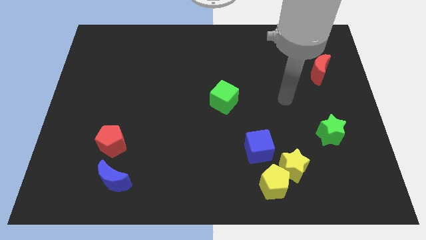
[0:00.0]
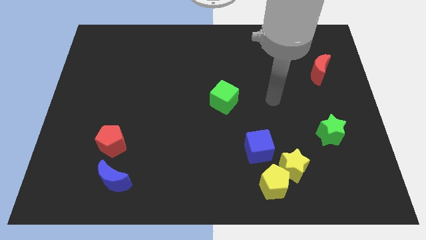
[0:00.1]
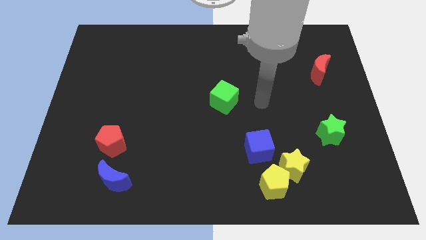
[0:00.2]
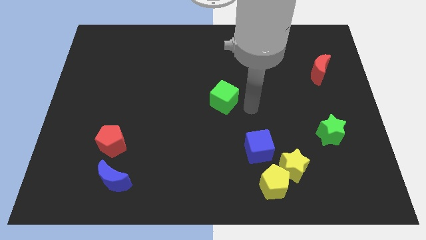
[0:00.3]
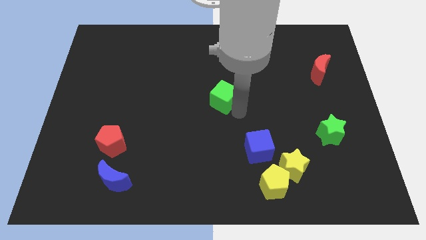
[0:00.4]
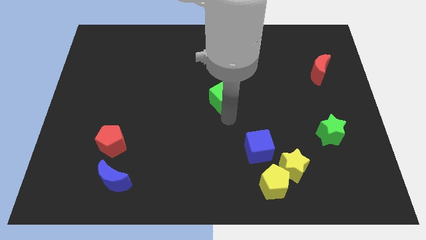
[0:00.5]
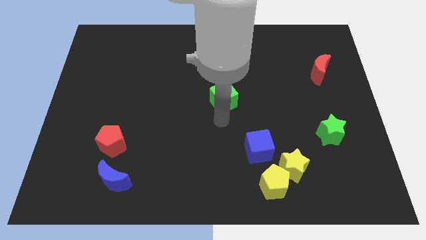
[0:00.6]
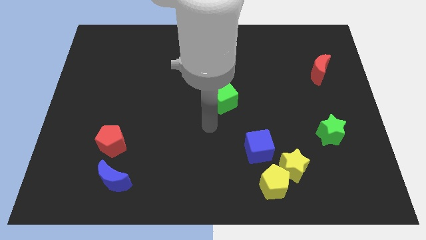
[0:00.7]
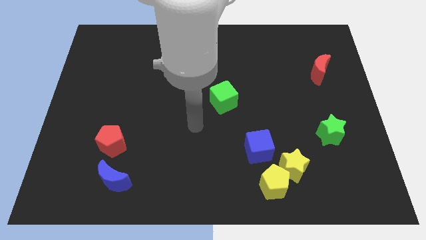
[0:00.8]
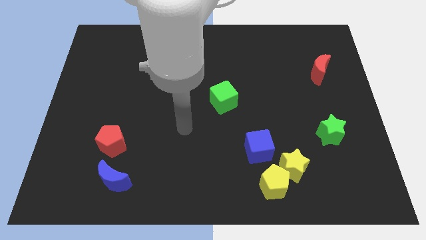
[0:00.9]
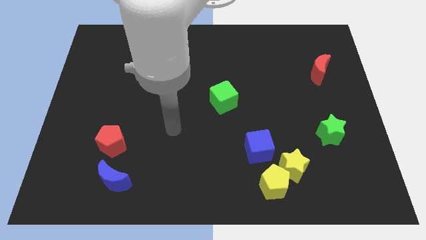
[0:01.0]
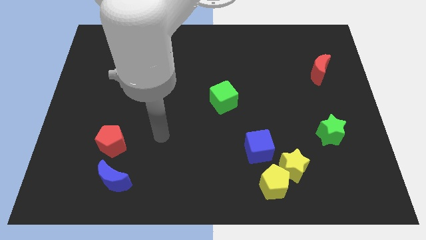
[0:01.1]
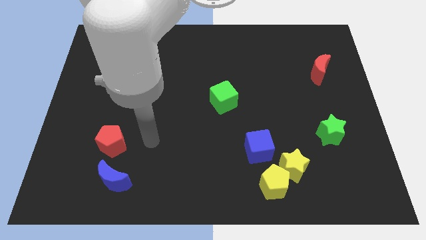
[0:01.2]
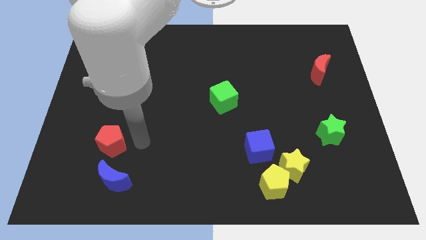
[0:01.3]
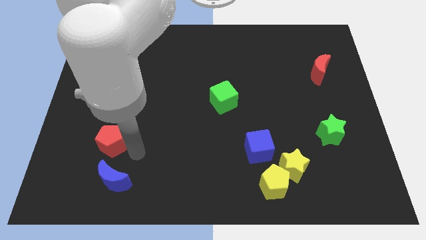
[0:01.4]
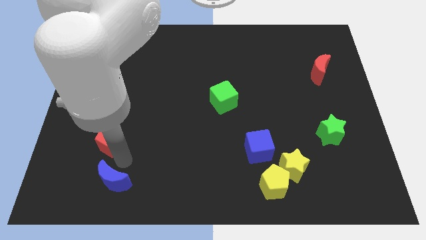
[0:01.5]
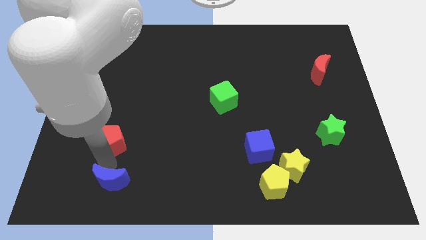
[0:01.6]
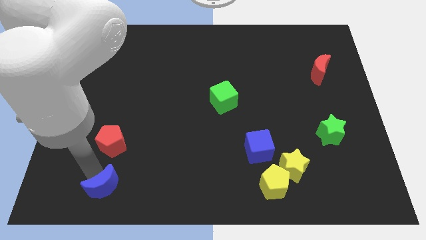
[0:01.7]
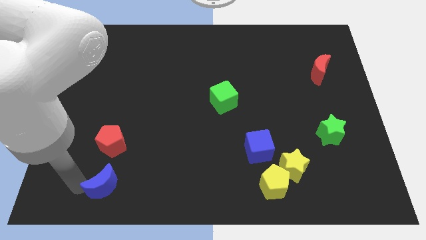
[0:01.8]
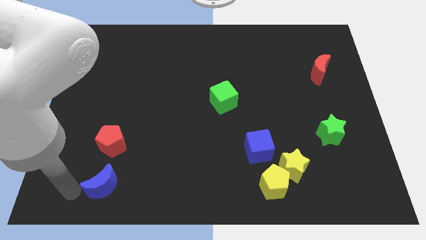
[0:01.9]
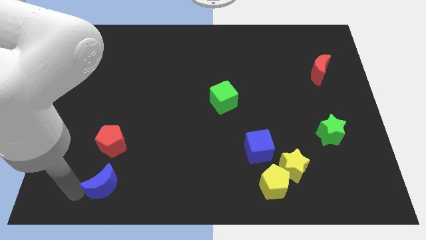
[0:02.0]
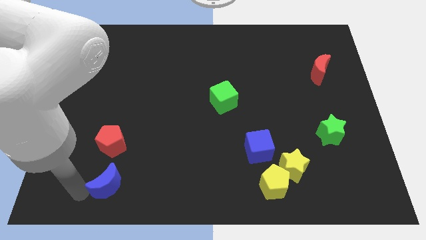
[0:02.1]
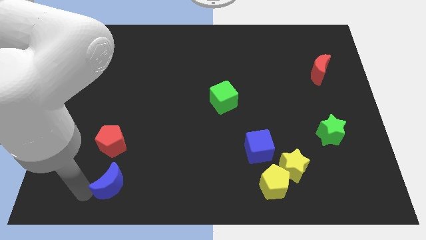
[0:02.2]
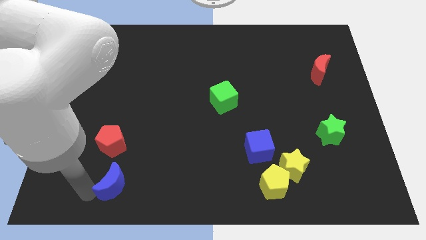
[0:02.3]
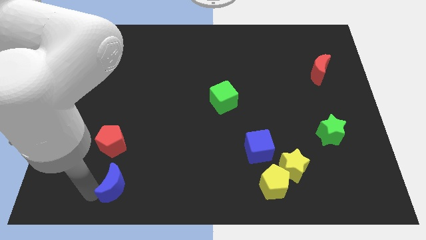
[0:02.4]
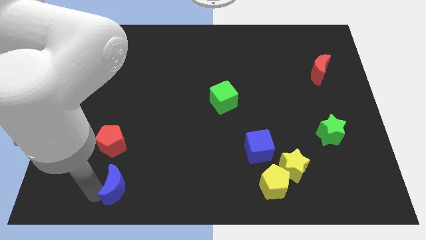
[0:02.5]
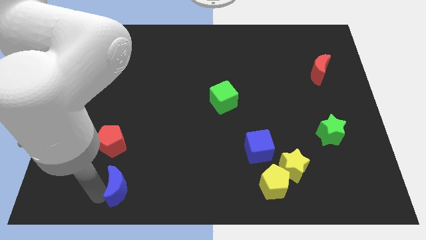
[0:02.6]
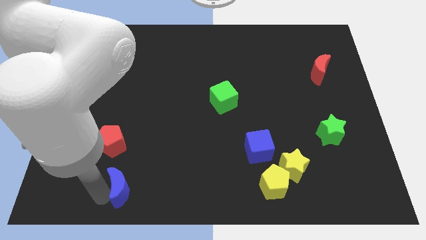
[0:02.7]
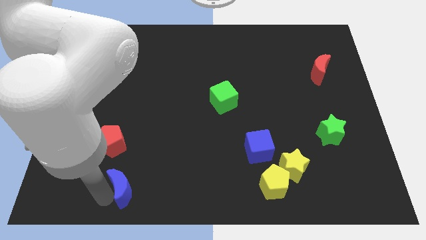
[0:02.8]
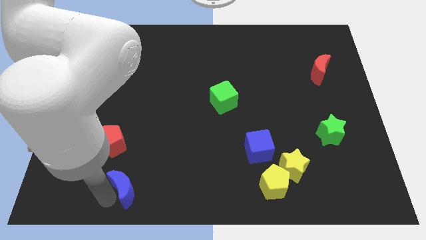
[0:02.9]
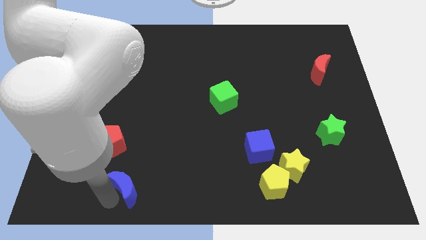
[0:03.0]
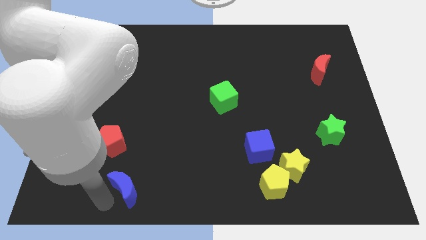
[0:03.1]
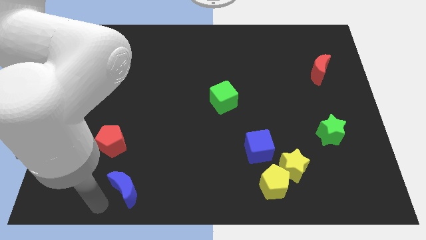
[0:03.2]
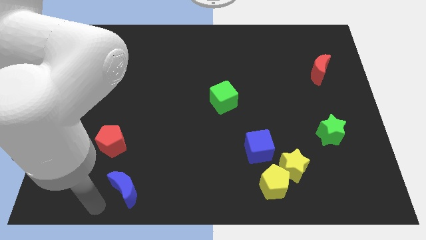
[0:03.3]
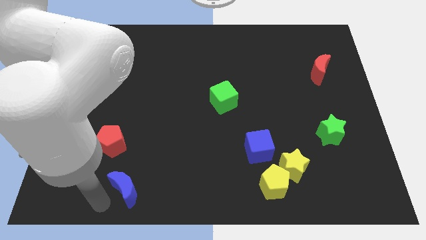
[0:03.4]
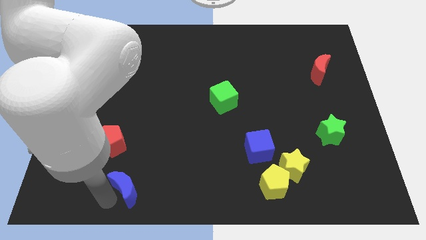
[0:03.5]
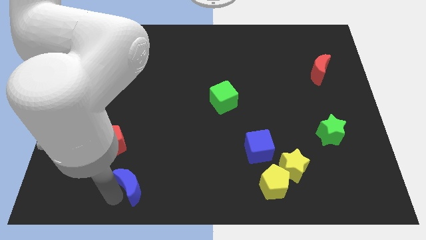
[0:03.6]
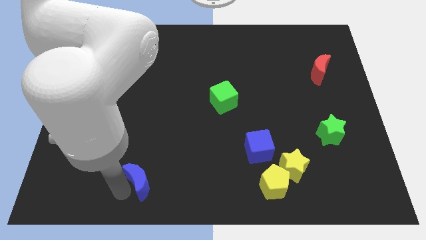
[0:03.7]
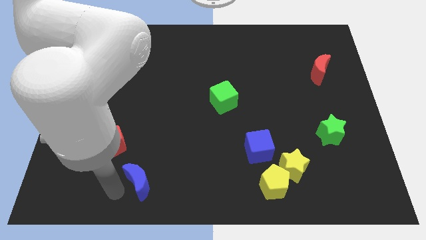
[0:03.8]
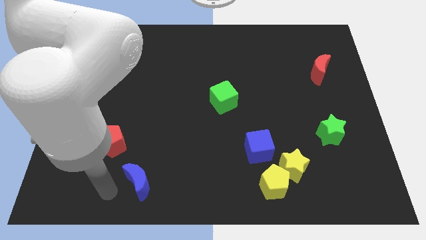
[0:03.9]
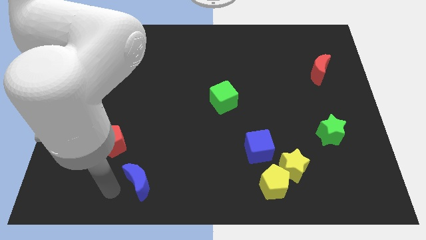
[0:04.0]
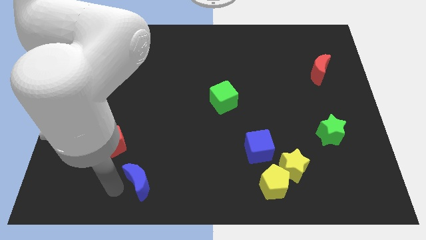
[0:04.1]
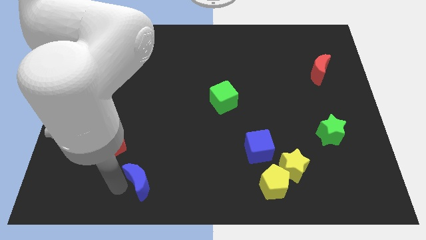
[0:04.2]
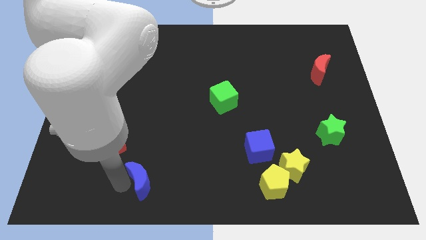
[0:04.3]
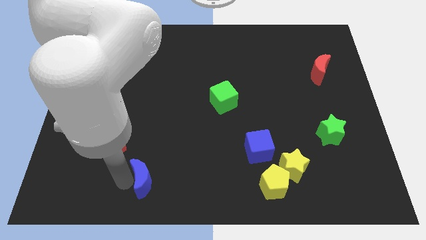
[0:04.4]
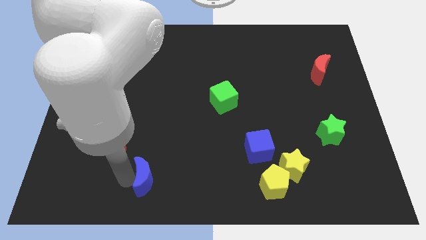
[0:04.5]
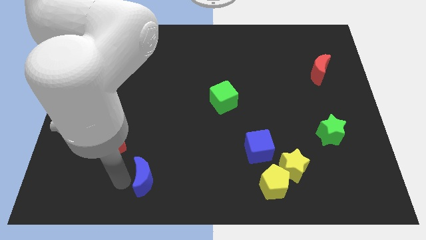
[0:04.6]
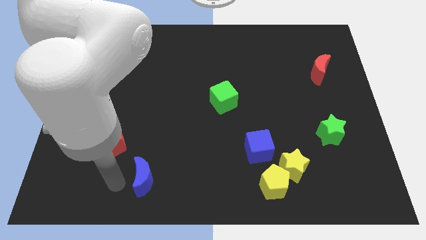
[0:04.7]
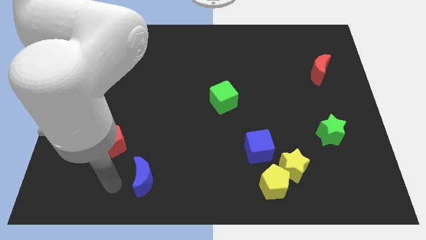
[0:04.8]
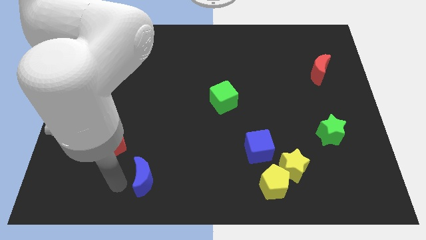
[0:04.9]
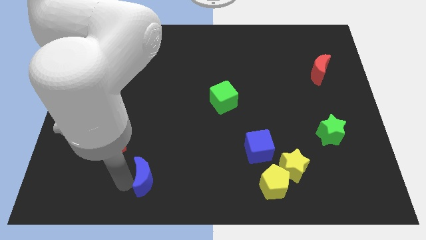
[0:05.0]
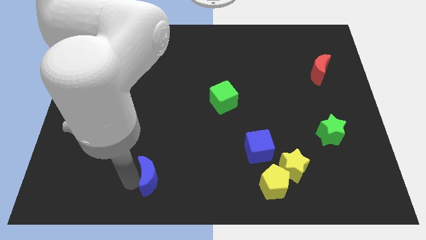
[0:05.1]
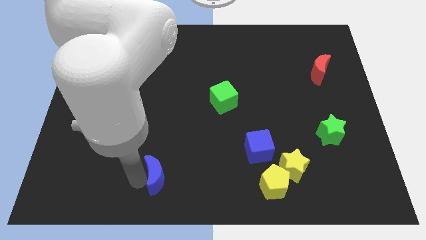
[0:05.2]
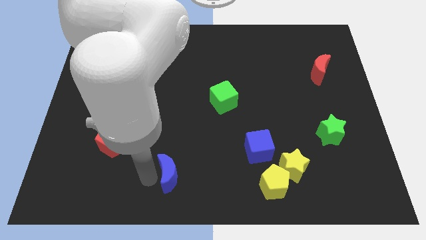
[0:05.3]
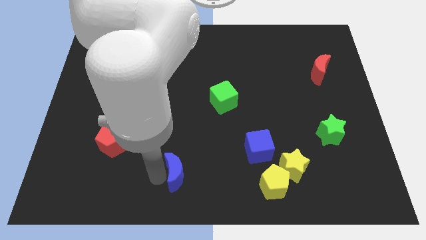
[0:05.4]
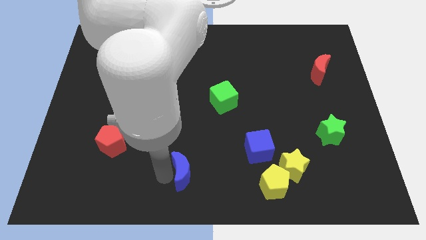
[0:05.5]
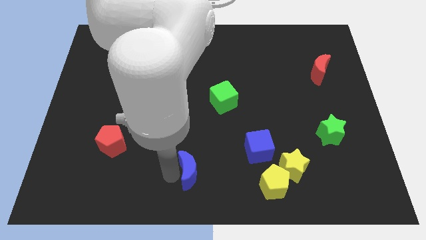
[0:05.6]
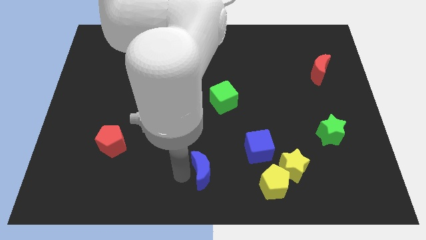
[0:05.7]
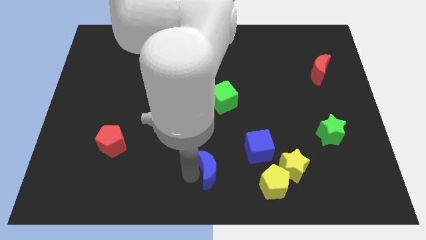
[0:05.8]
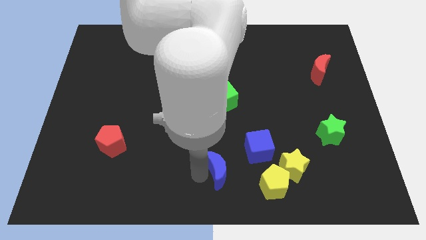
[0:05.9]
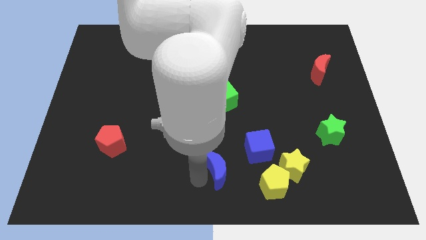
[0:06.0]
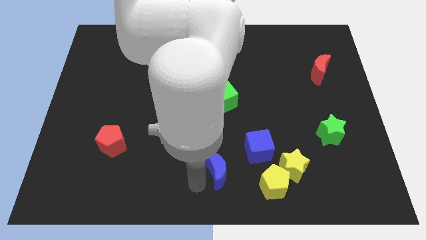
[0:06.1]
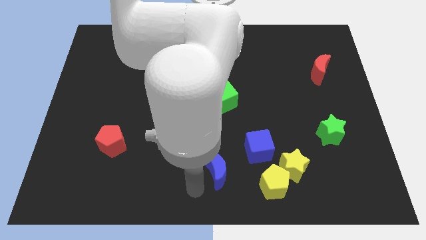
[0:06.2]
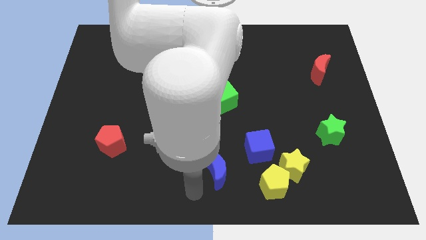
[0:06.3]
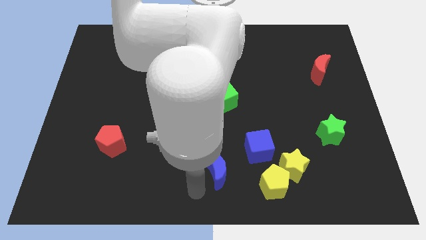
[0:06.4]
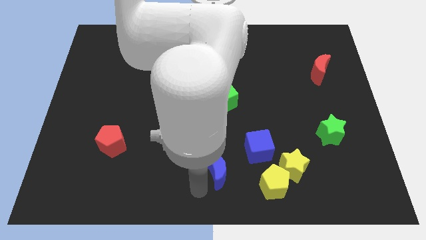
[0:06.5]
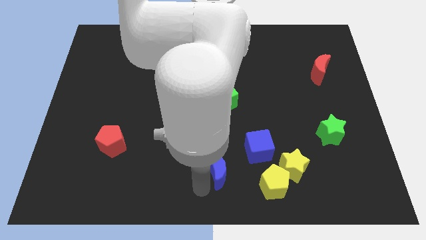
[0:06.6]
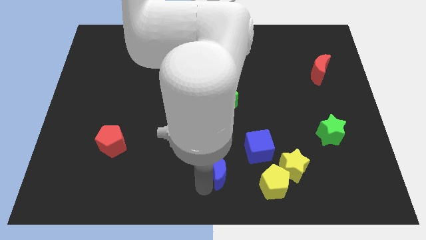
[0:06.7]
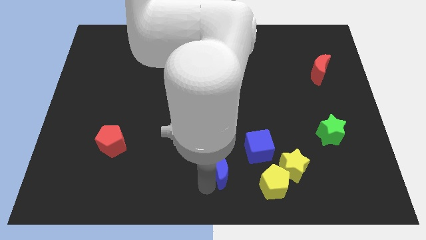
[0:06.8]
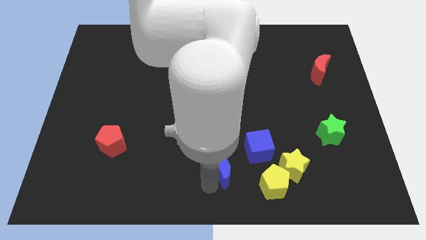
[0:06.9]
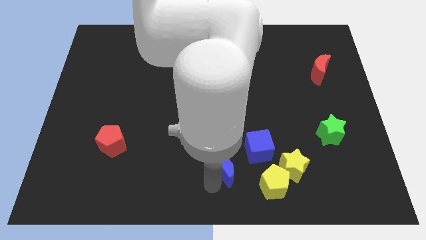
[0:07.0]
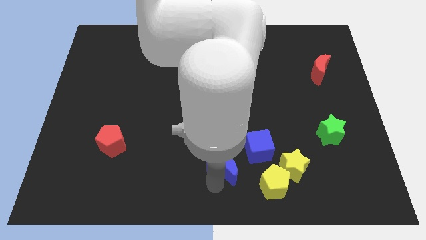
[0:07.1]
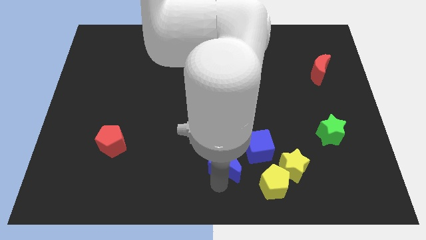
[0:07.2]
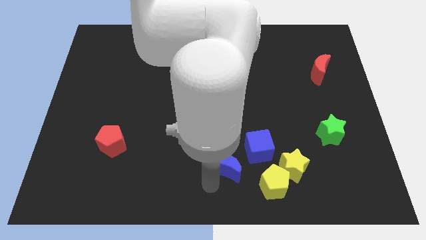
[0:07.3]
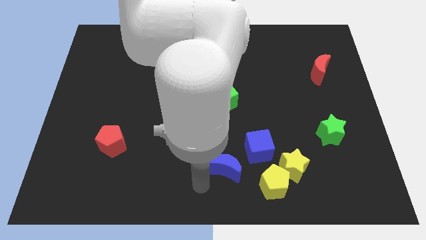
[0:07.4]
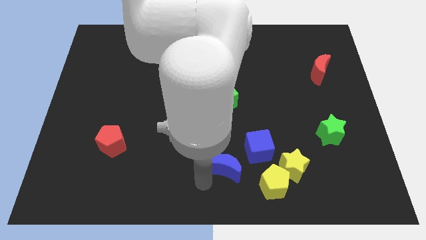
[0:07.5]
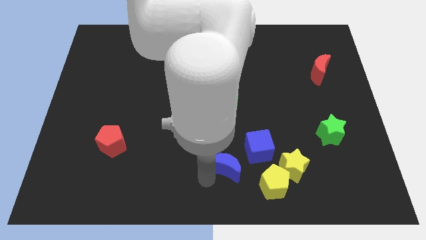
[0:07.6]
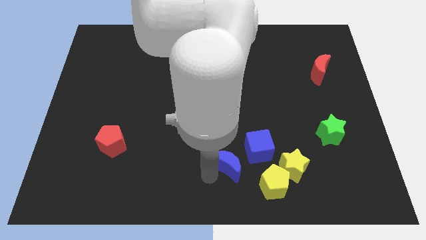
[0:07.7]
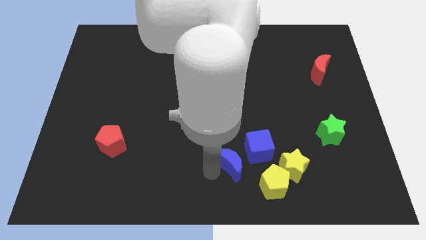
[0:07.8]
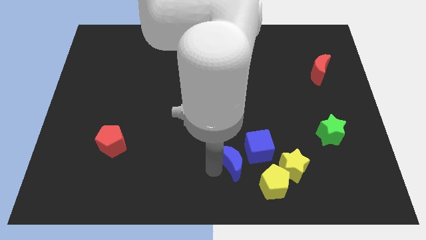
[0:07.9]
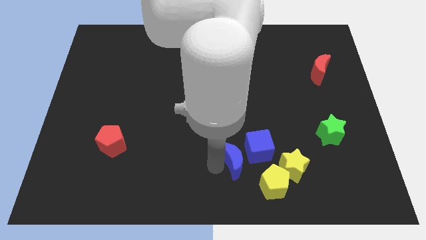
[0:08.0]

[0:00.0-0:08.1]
move the blue moon next to the blue cube
